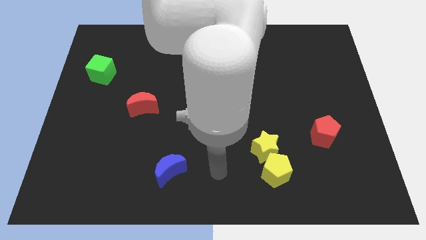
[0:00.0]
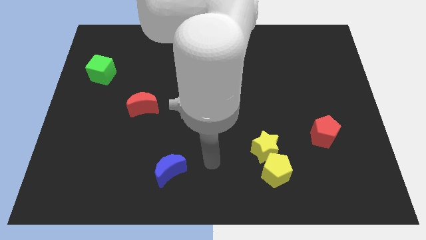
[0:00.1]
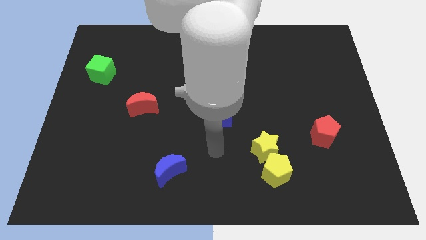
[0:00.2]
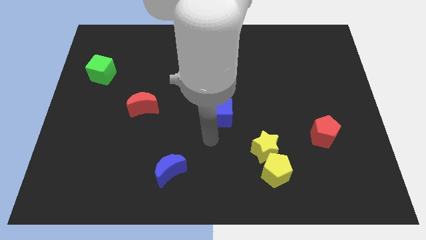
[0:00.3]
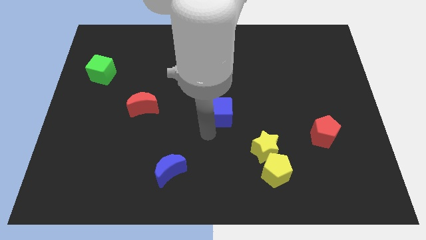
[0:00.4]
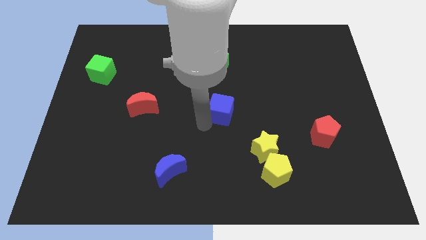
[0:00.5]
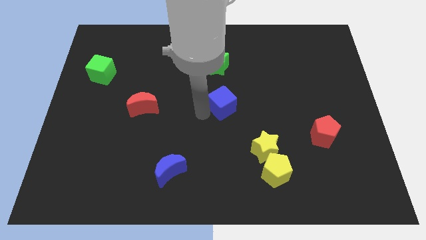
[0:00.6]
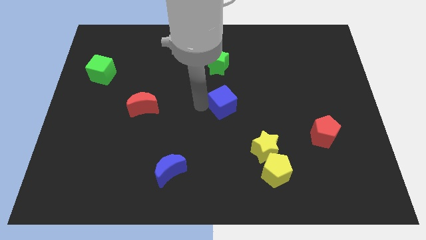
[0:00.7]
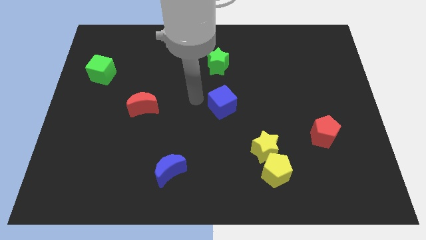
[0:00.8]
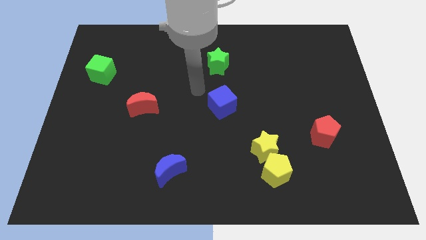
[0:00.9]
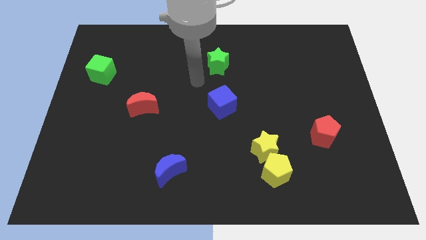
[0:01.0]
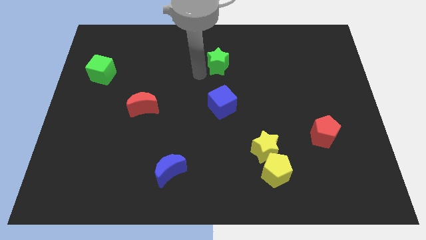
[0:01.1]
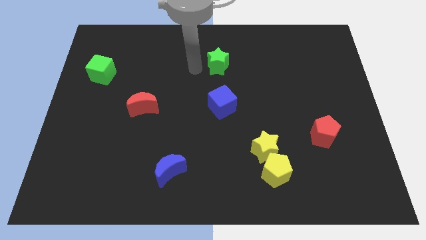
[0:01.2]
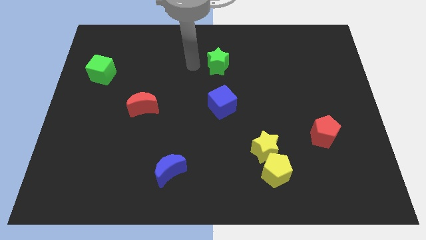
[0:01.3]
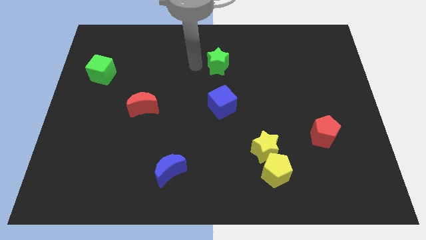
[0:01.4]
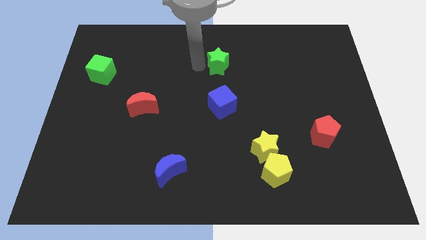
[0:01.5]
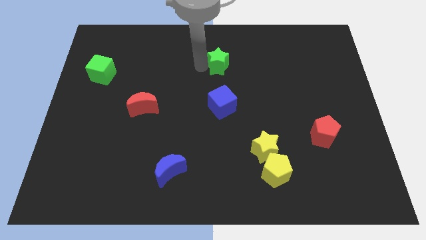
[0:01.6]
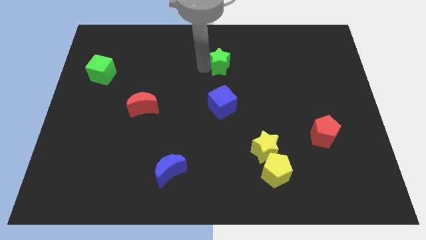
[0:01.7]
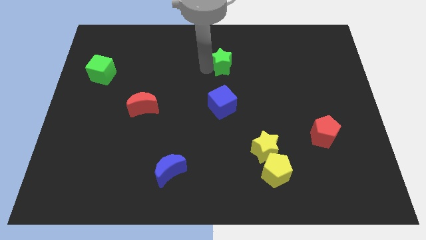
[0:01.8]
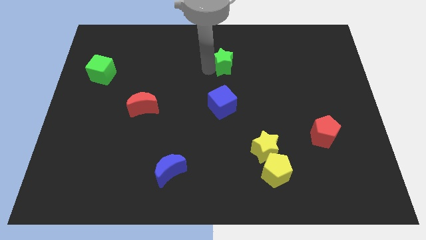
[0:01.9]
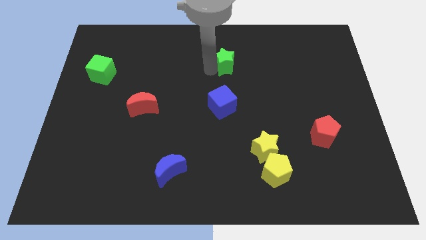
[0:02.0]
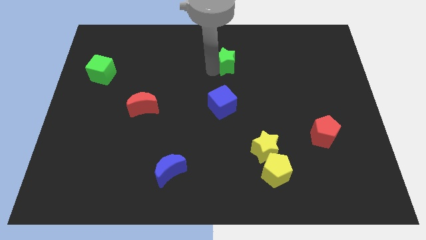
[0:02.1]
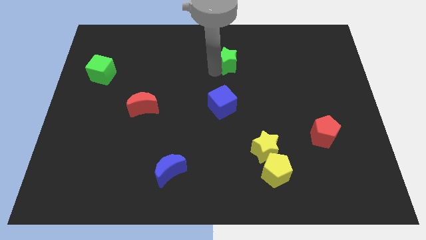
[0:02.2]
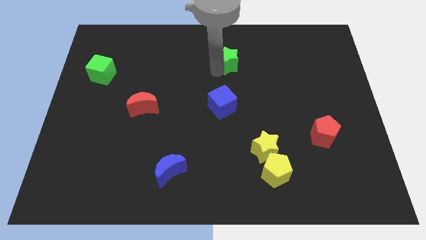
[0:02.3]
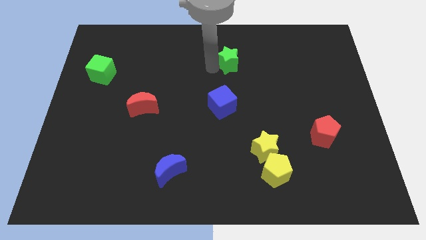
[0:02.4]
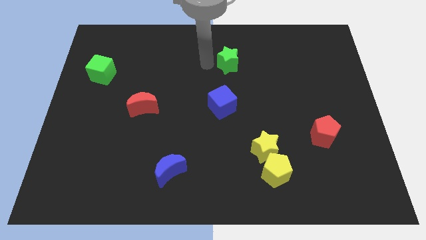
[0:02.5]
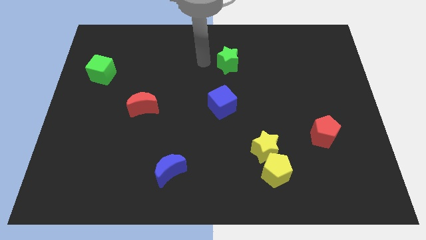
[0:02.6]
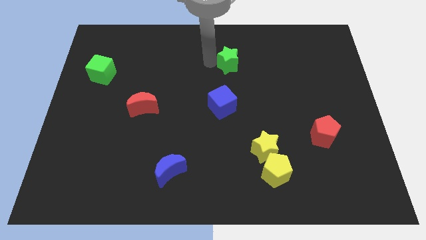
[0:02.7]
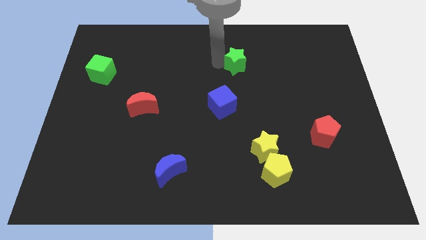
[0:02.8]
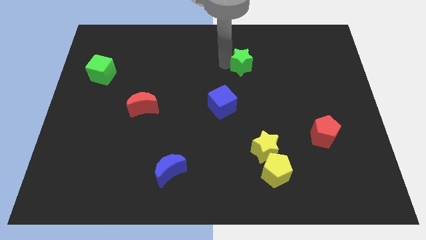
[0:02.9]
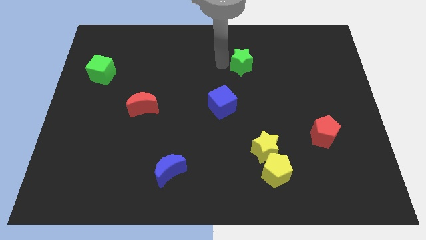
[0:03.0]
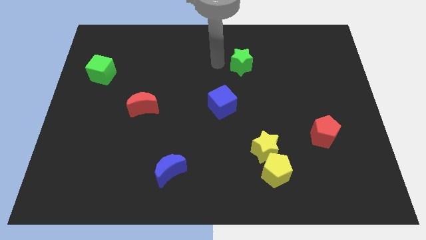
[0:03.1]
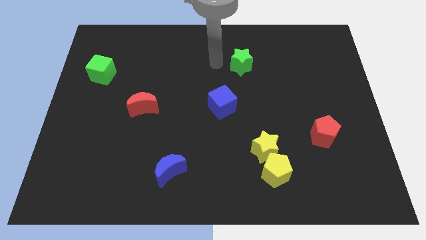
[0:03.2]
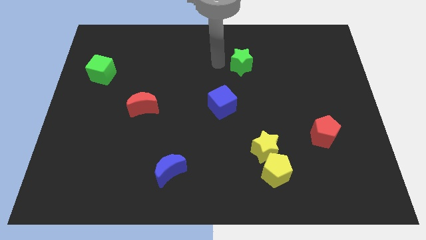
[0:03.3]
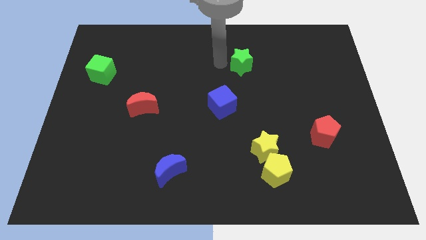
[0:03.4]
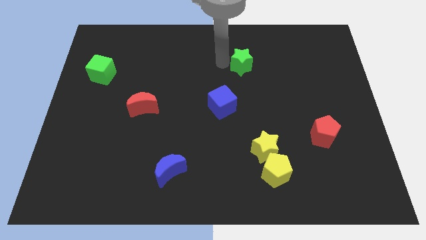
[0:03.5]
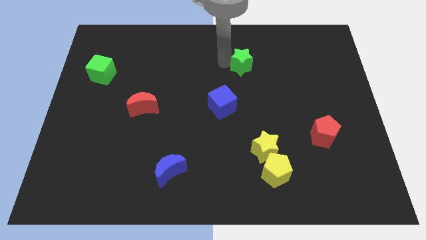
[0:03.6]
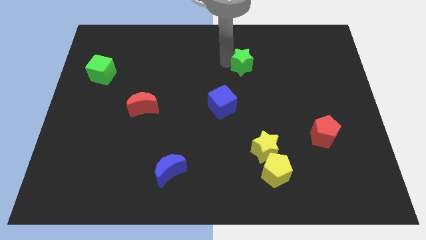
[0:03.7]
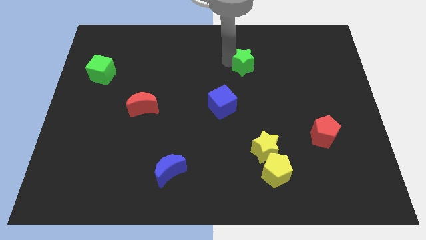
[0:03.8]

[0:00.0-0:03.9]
move the green star a bit right

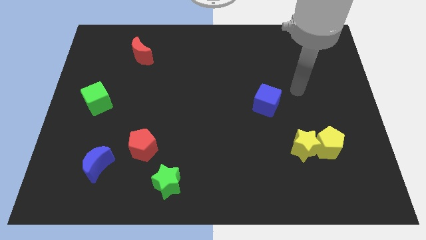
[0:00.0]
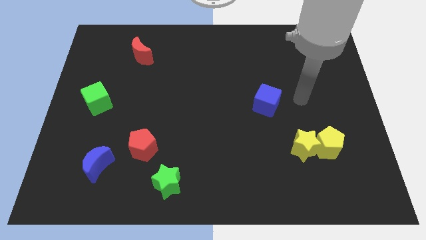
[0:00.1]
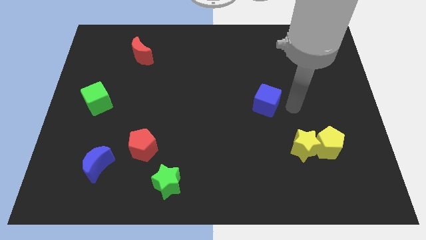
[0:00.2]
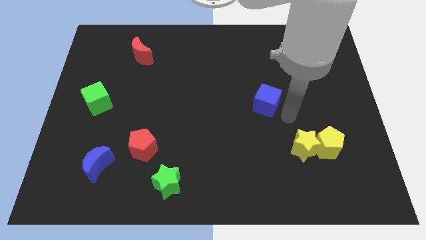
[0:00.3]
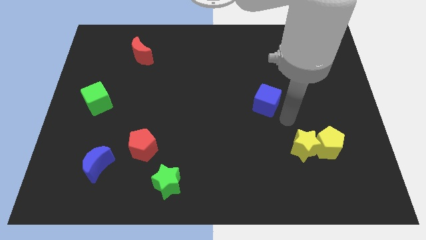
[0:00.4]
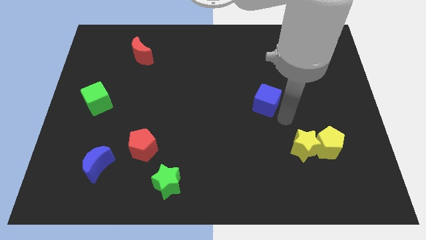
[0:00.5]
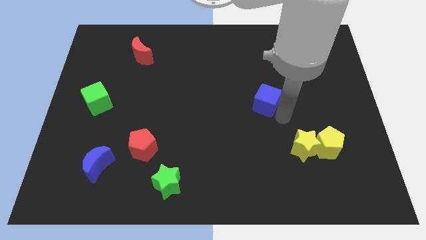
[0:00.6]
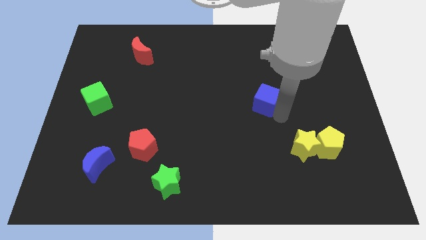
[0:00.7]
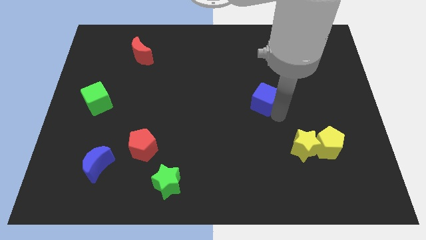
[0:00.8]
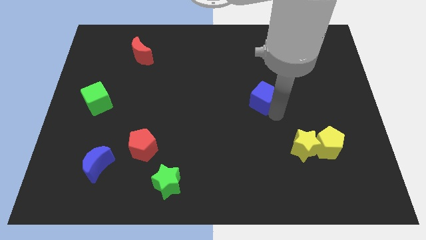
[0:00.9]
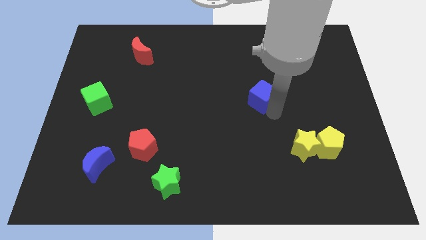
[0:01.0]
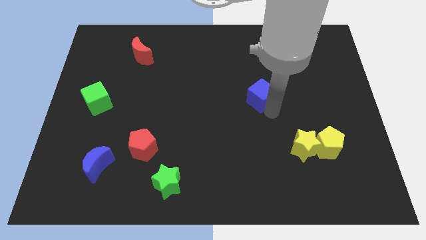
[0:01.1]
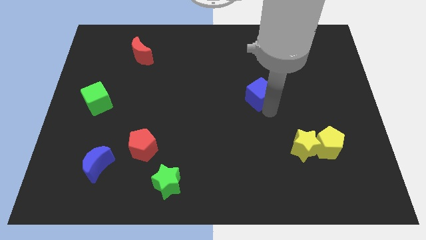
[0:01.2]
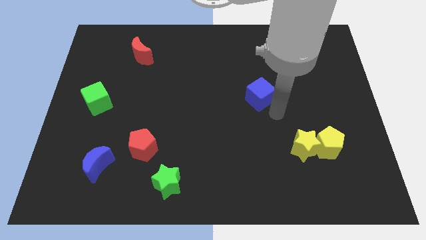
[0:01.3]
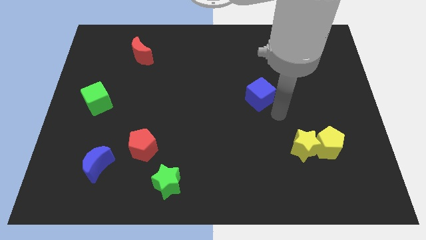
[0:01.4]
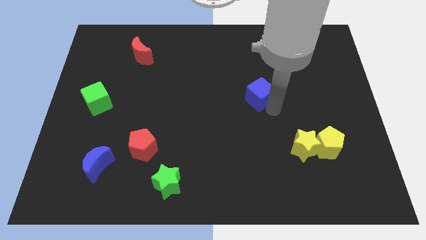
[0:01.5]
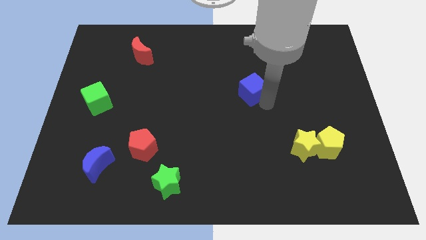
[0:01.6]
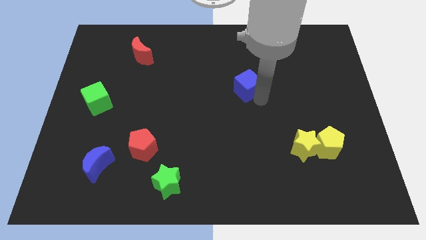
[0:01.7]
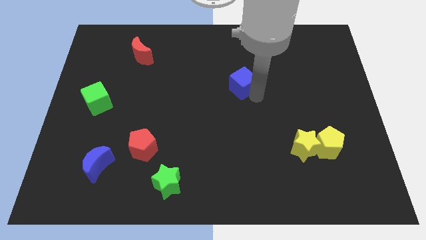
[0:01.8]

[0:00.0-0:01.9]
slide the blue cube up and left diagonally a little bit

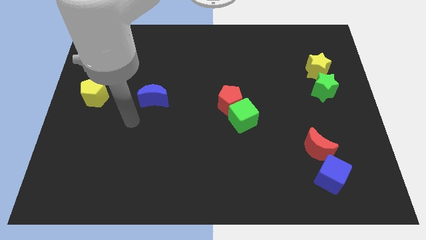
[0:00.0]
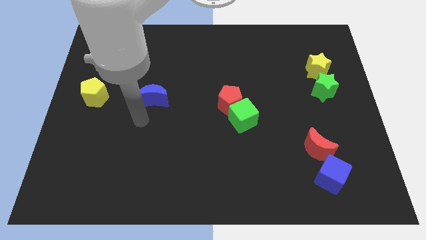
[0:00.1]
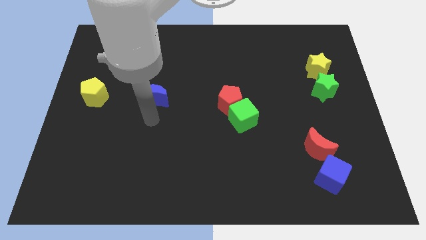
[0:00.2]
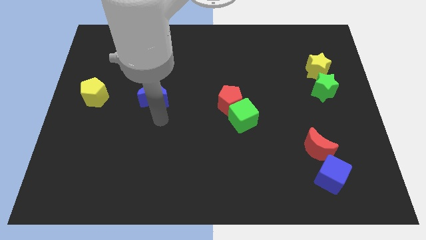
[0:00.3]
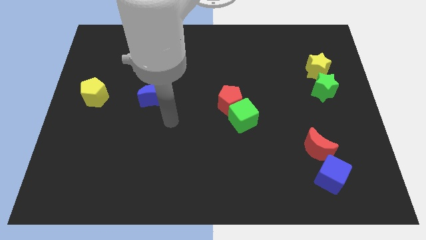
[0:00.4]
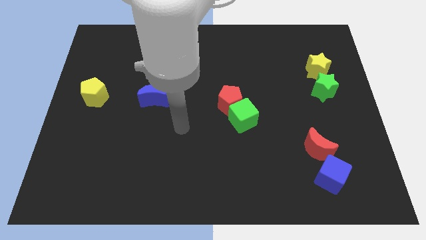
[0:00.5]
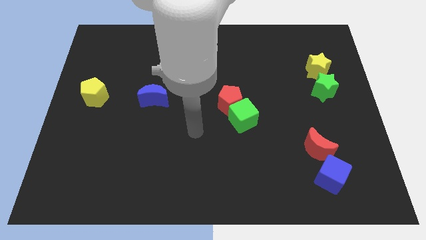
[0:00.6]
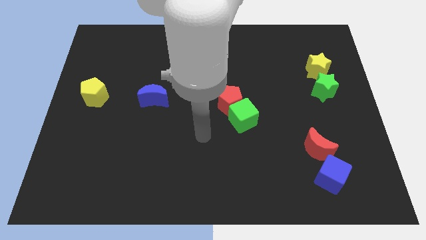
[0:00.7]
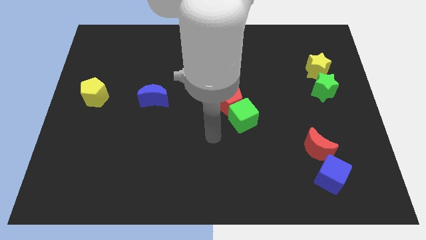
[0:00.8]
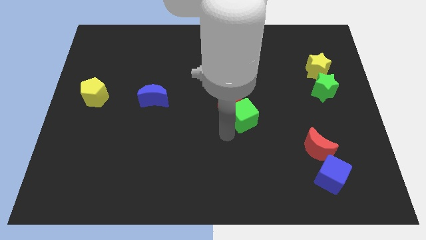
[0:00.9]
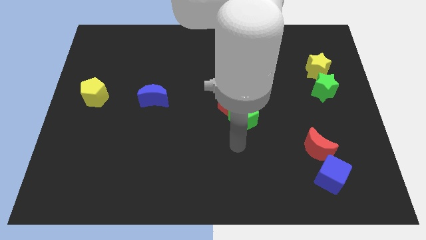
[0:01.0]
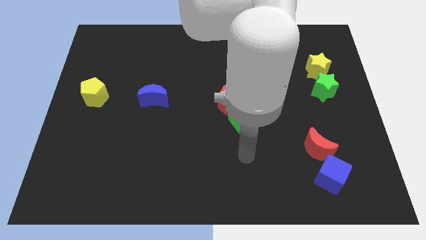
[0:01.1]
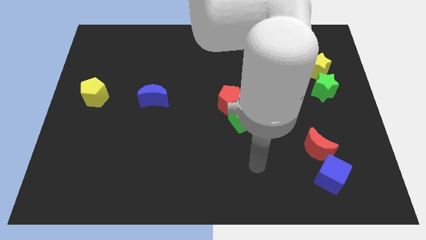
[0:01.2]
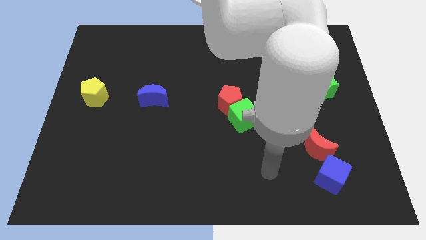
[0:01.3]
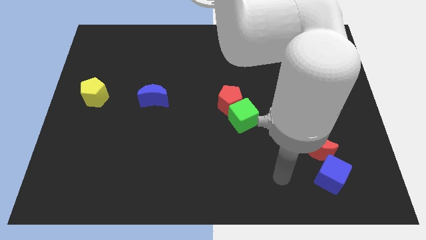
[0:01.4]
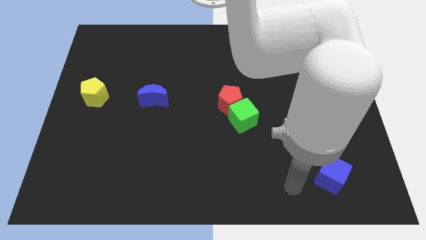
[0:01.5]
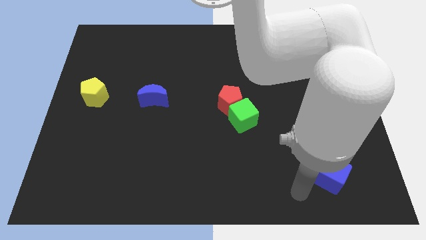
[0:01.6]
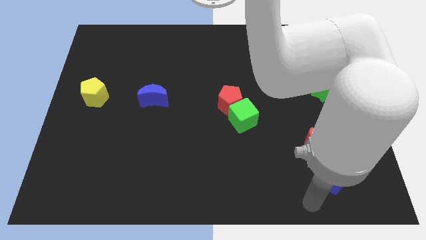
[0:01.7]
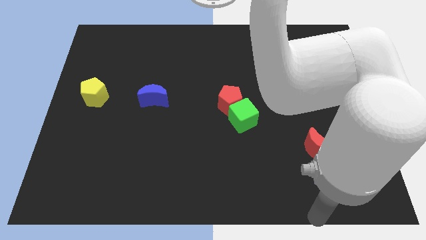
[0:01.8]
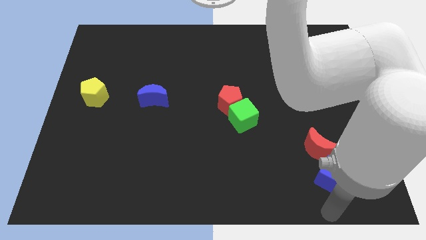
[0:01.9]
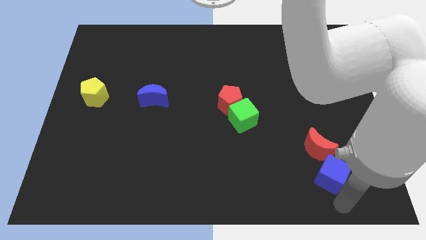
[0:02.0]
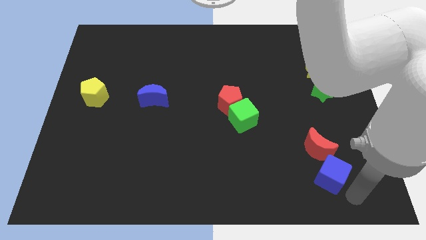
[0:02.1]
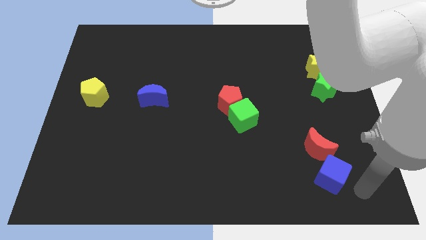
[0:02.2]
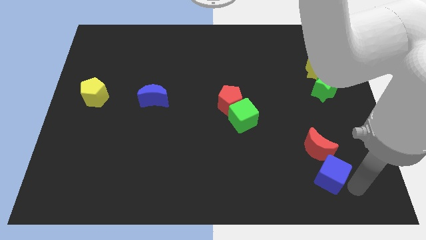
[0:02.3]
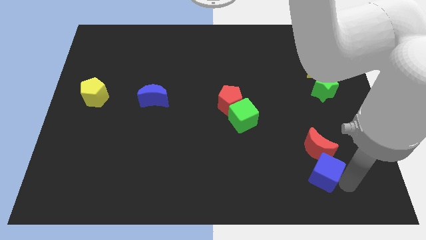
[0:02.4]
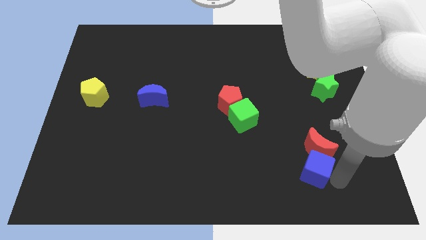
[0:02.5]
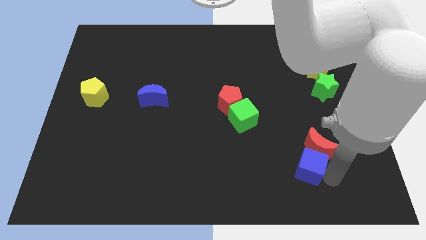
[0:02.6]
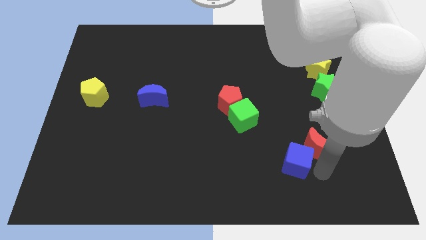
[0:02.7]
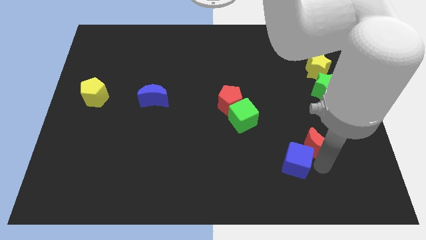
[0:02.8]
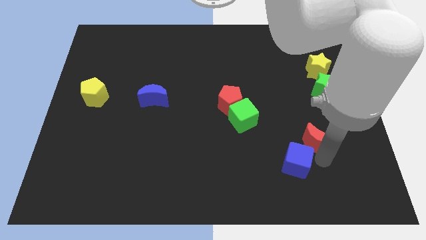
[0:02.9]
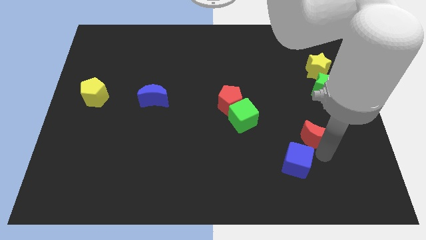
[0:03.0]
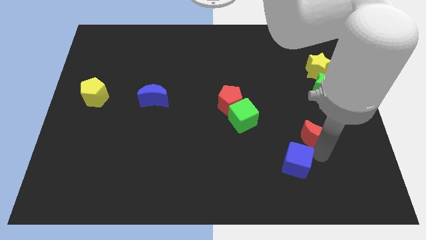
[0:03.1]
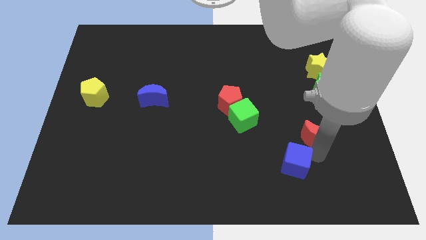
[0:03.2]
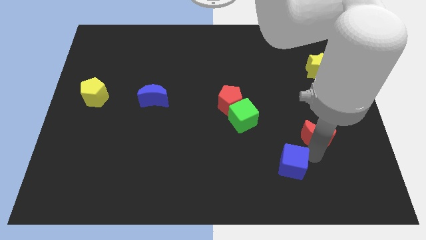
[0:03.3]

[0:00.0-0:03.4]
slightly push the blue cube left
